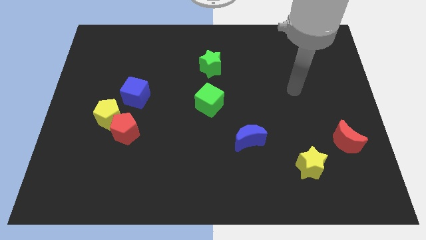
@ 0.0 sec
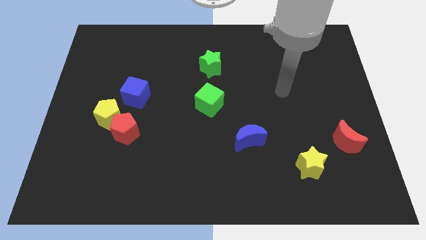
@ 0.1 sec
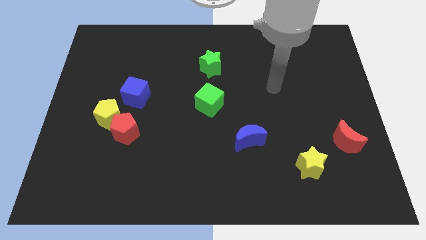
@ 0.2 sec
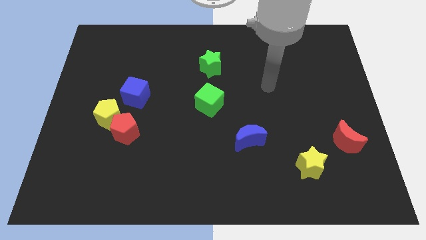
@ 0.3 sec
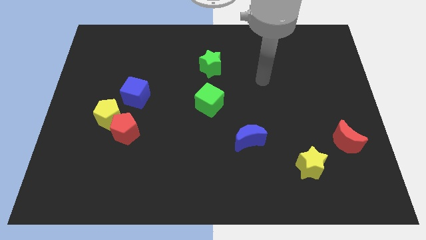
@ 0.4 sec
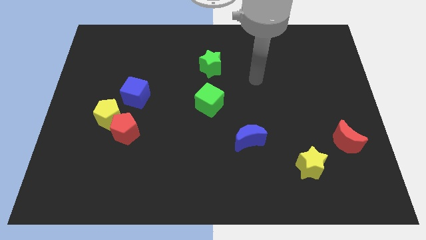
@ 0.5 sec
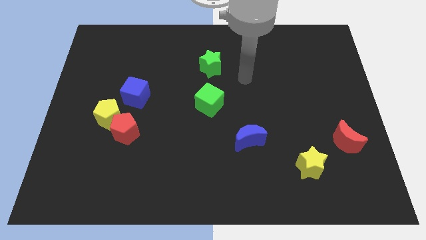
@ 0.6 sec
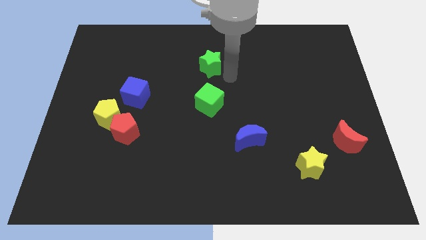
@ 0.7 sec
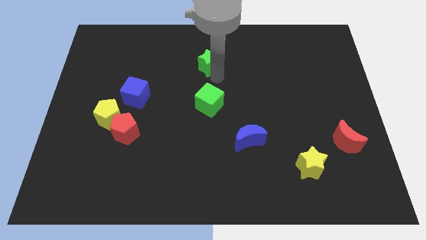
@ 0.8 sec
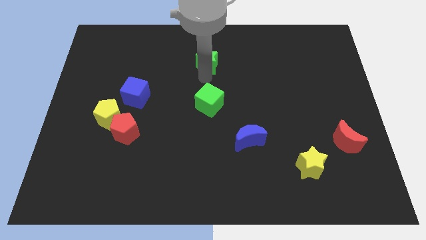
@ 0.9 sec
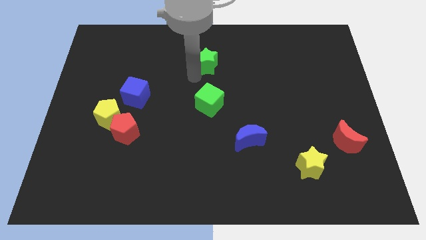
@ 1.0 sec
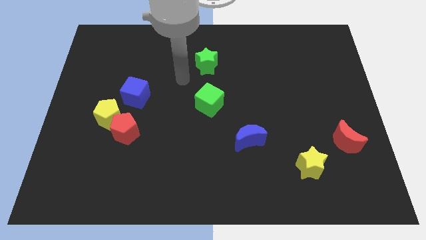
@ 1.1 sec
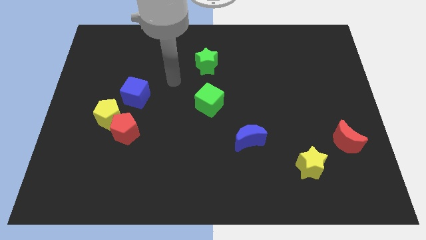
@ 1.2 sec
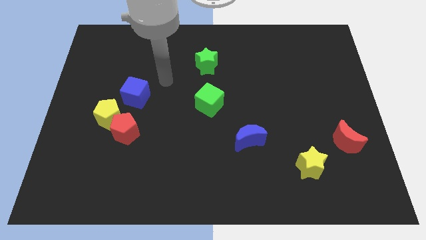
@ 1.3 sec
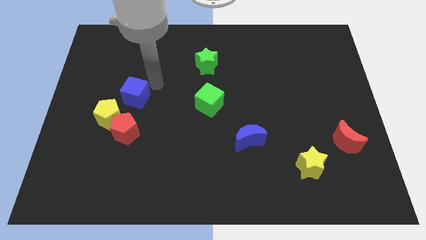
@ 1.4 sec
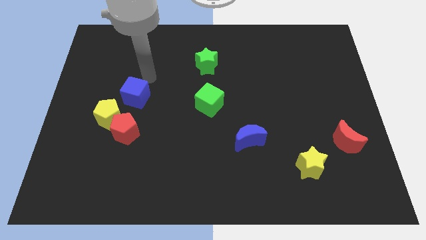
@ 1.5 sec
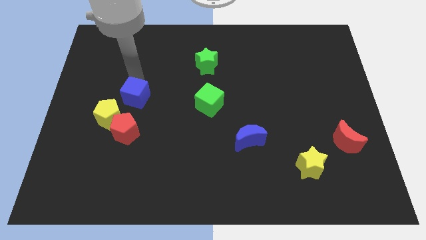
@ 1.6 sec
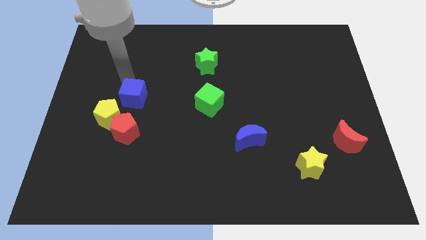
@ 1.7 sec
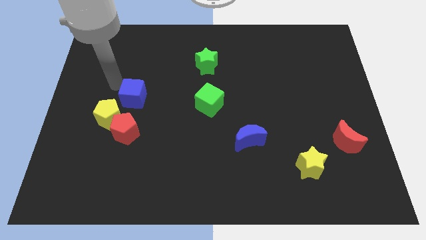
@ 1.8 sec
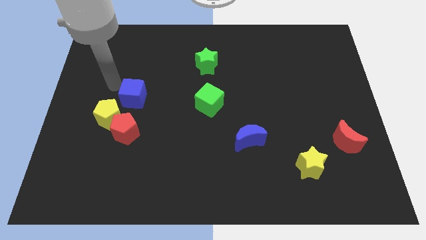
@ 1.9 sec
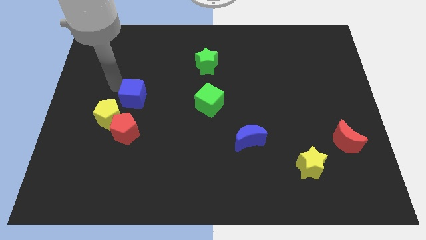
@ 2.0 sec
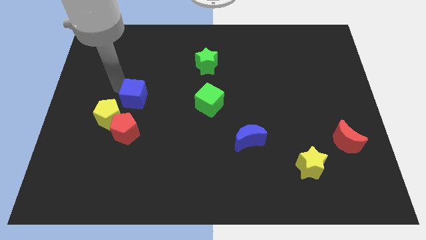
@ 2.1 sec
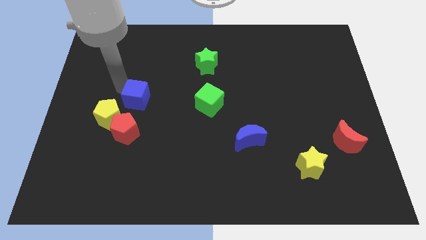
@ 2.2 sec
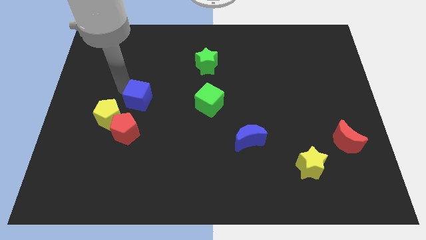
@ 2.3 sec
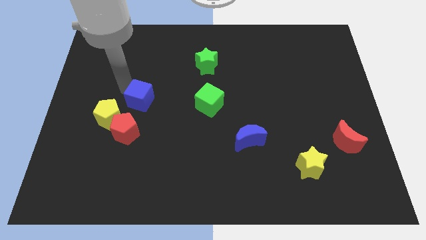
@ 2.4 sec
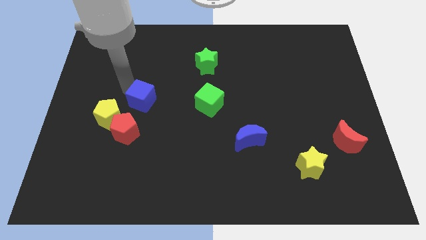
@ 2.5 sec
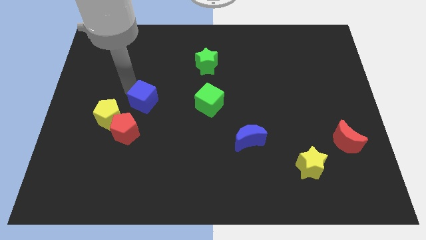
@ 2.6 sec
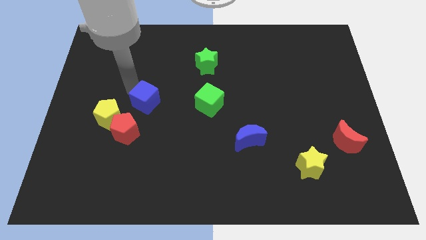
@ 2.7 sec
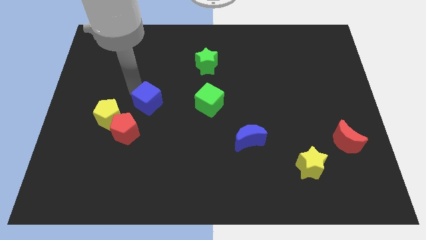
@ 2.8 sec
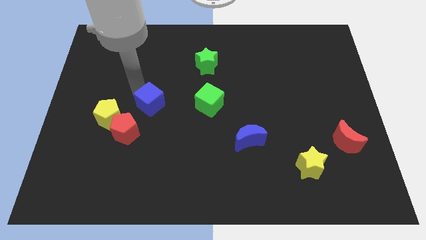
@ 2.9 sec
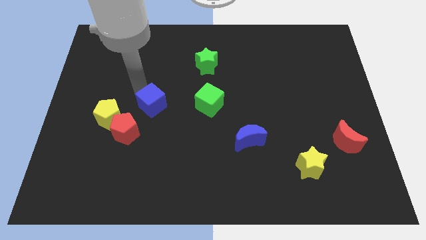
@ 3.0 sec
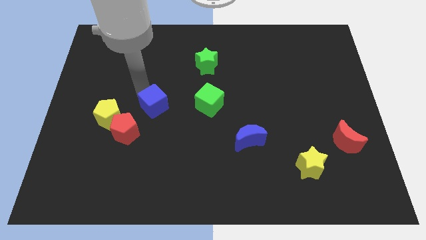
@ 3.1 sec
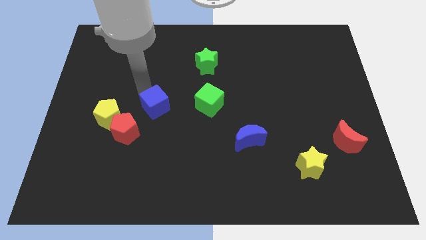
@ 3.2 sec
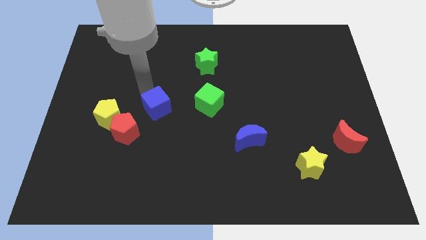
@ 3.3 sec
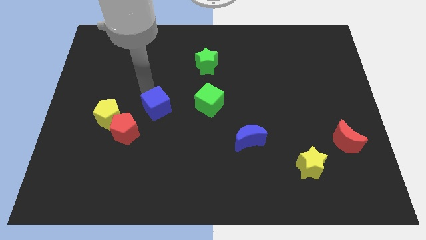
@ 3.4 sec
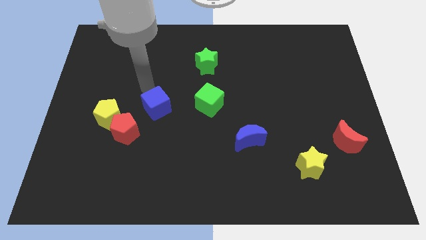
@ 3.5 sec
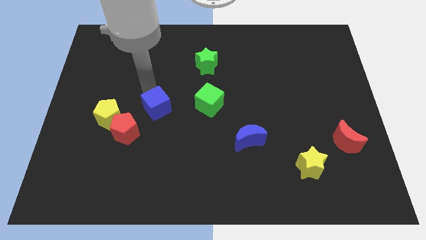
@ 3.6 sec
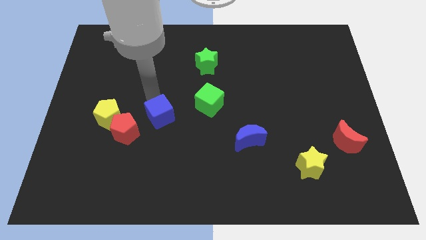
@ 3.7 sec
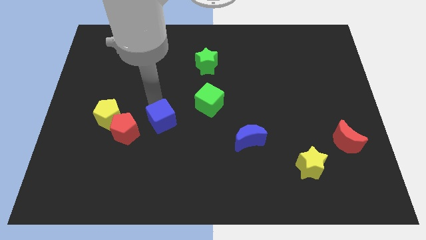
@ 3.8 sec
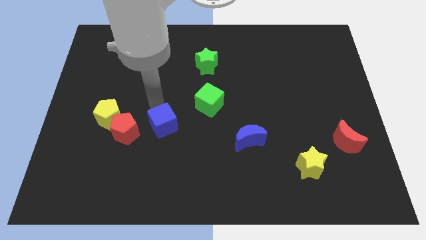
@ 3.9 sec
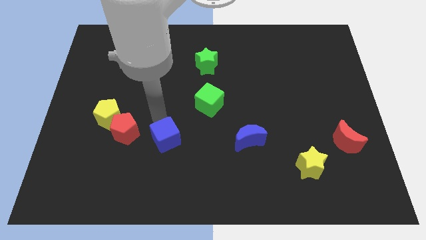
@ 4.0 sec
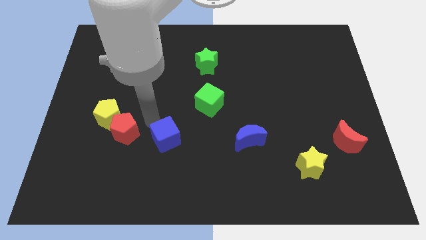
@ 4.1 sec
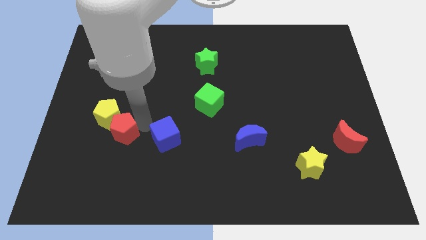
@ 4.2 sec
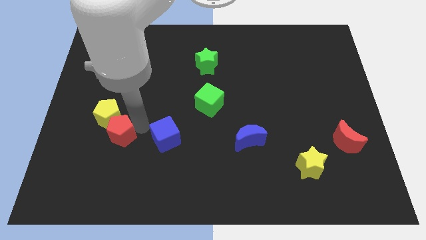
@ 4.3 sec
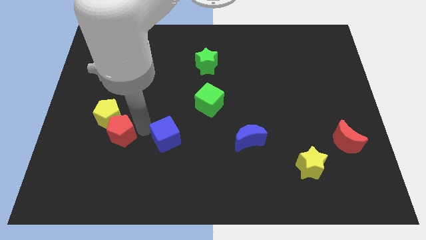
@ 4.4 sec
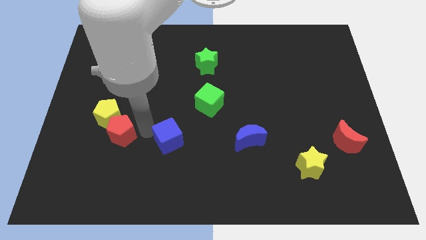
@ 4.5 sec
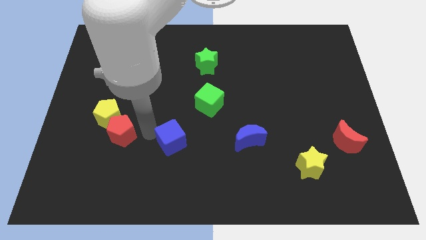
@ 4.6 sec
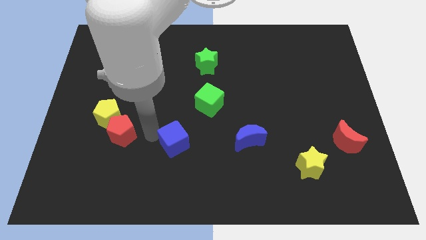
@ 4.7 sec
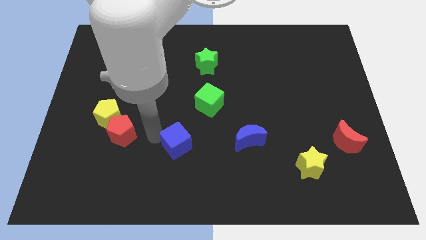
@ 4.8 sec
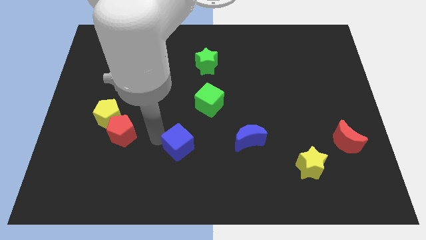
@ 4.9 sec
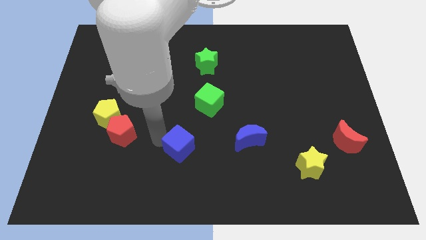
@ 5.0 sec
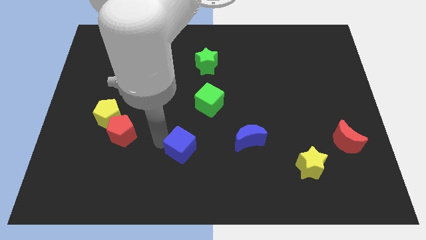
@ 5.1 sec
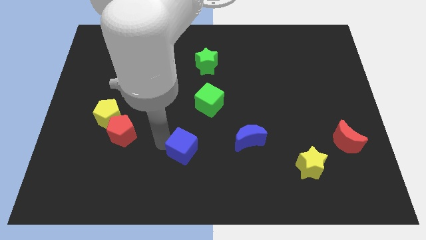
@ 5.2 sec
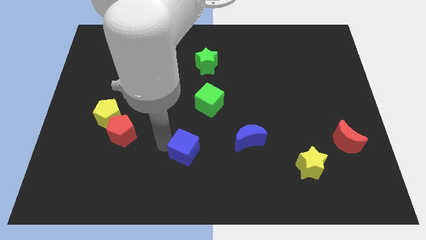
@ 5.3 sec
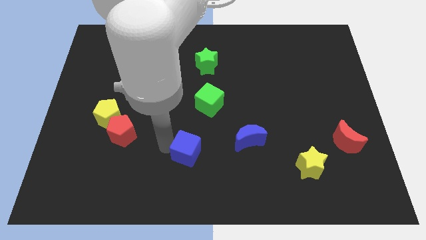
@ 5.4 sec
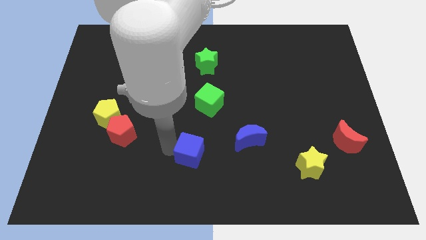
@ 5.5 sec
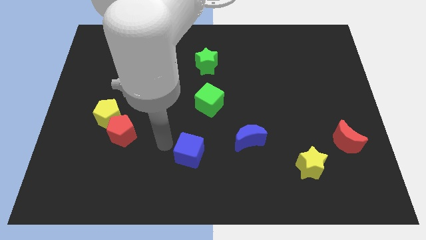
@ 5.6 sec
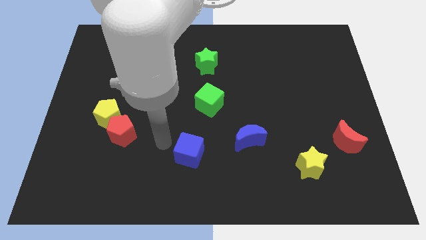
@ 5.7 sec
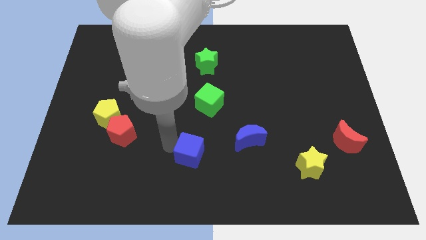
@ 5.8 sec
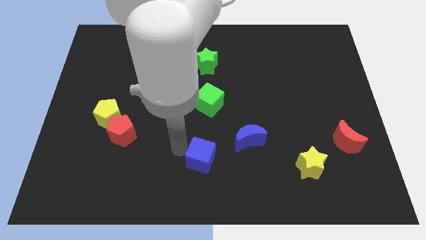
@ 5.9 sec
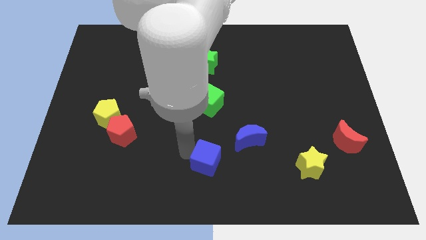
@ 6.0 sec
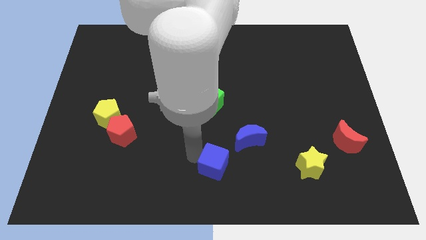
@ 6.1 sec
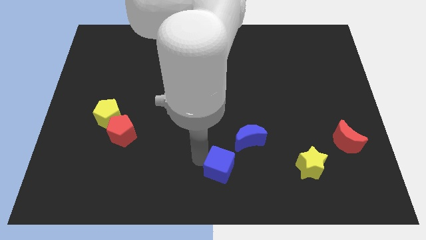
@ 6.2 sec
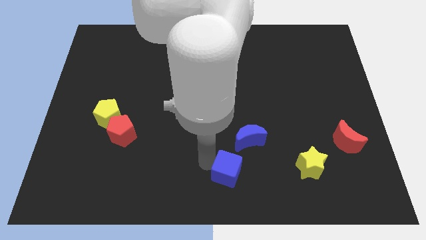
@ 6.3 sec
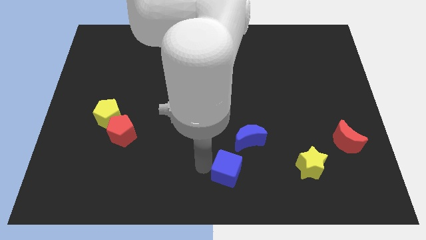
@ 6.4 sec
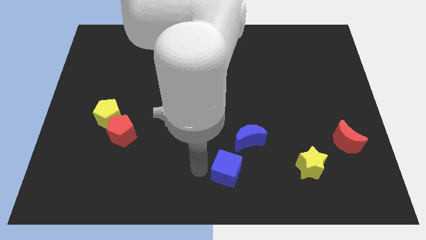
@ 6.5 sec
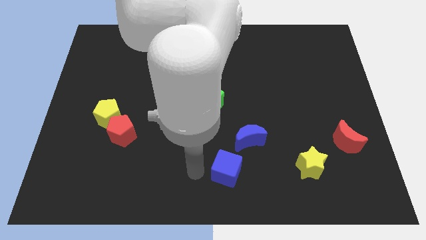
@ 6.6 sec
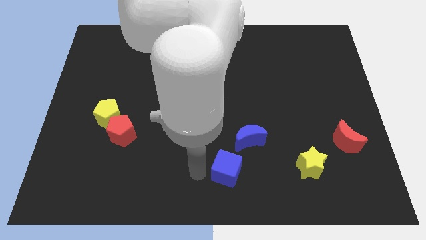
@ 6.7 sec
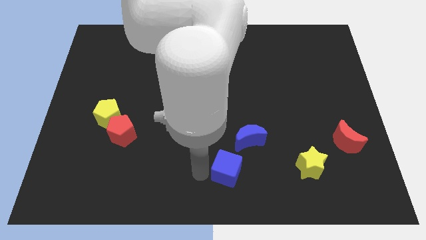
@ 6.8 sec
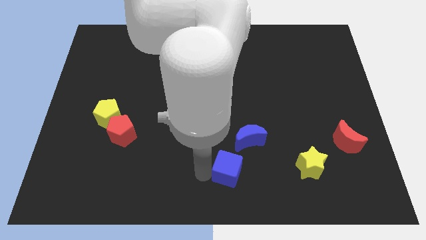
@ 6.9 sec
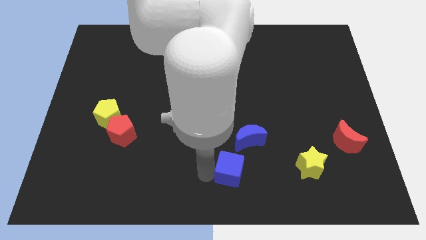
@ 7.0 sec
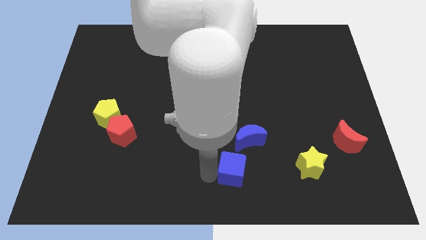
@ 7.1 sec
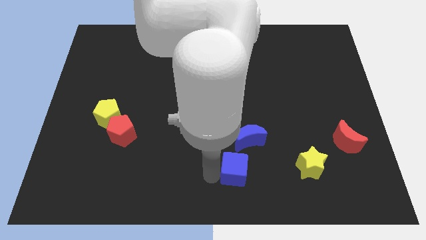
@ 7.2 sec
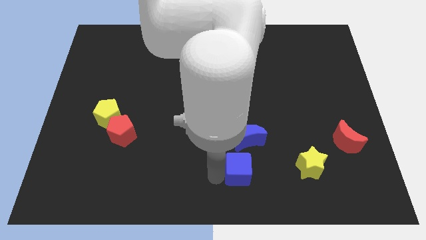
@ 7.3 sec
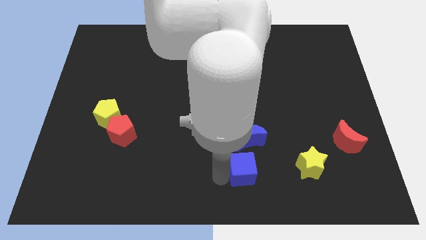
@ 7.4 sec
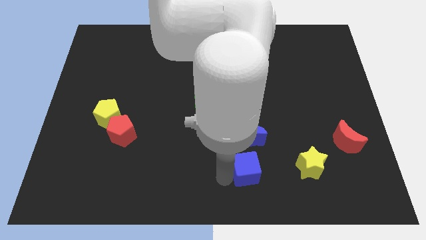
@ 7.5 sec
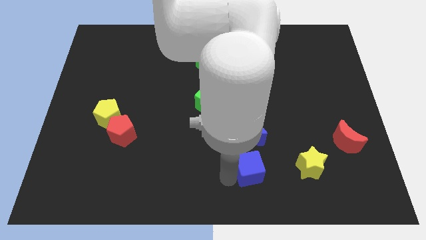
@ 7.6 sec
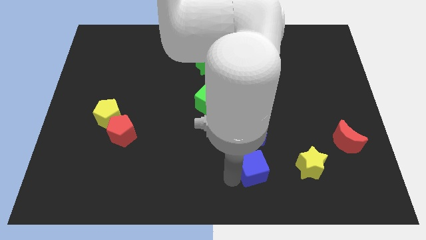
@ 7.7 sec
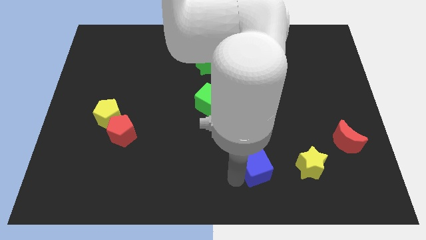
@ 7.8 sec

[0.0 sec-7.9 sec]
move the blue cube to the bottom right side of the blue moon
